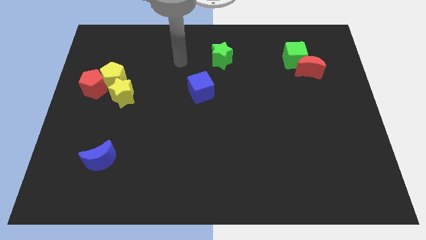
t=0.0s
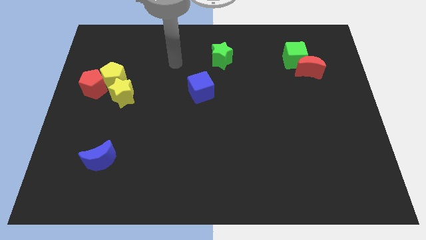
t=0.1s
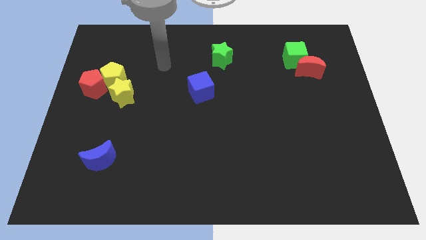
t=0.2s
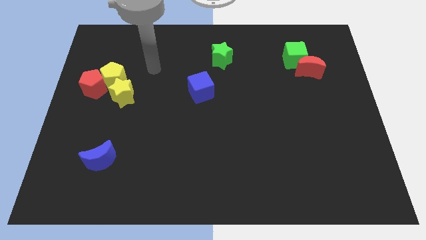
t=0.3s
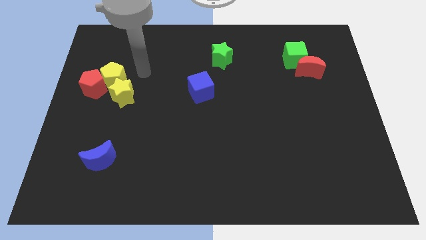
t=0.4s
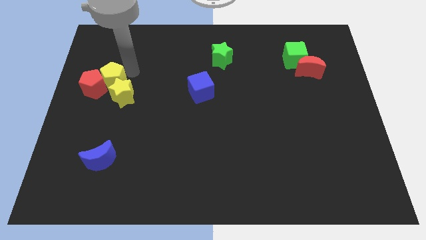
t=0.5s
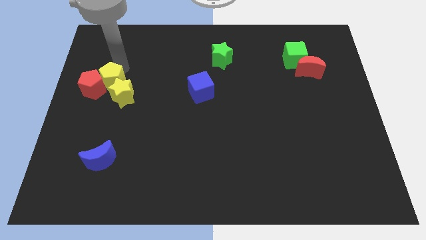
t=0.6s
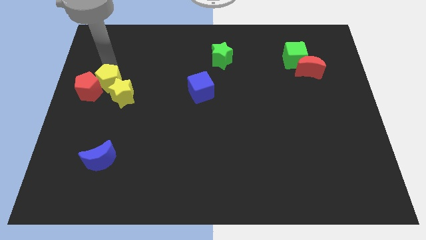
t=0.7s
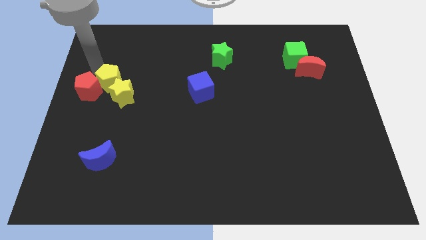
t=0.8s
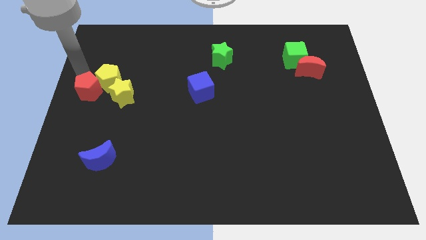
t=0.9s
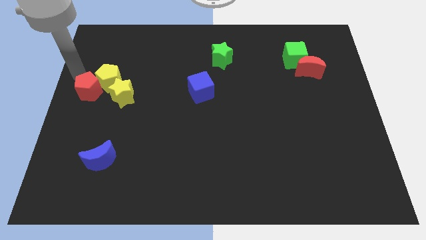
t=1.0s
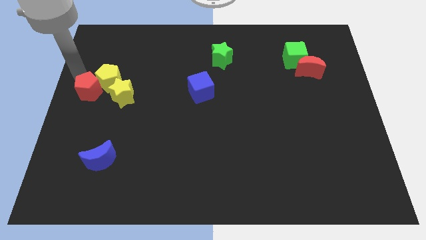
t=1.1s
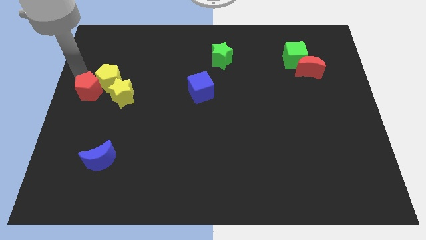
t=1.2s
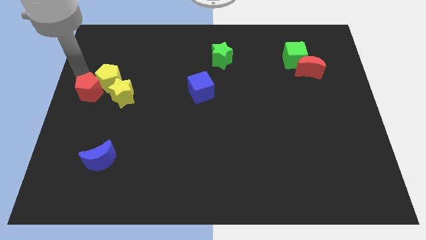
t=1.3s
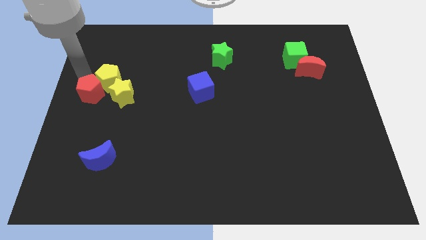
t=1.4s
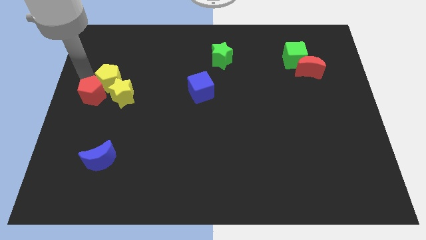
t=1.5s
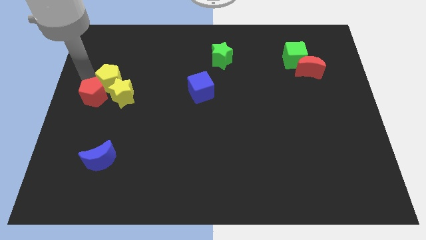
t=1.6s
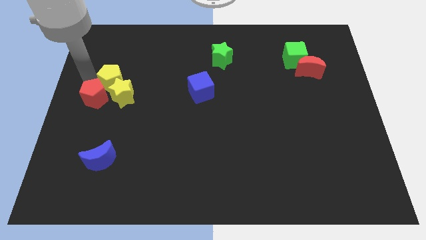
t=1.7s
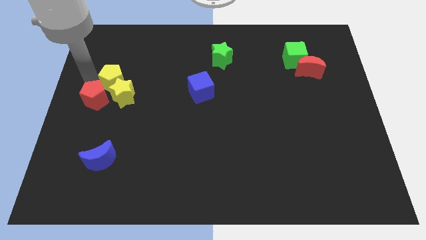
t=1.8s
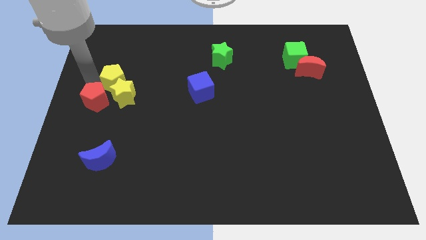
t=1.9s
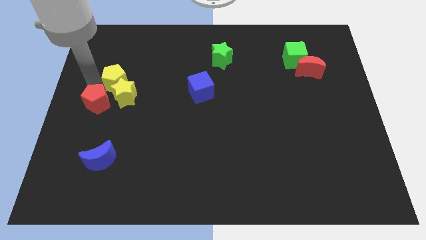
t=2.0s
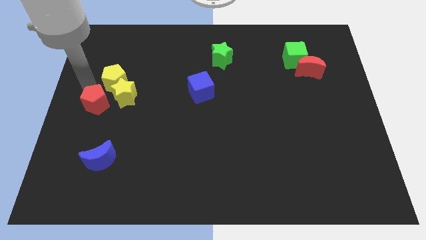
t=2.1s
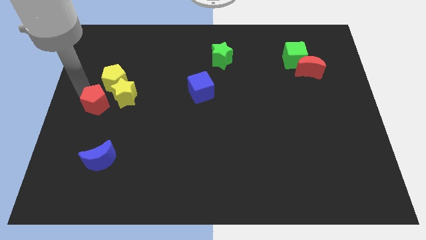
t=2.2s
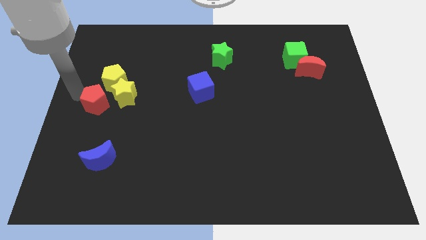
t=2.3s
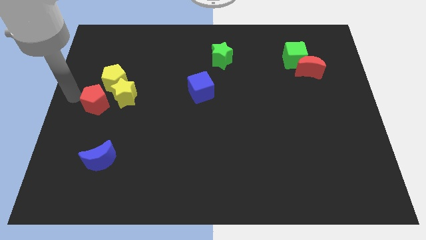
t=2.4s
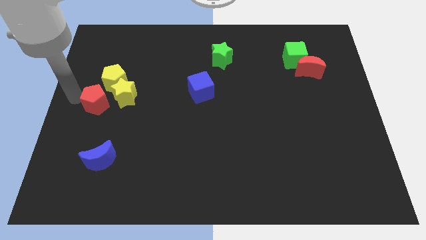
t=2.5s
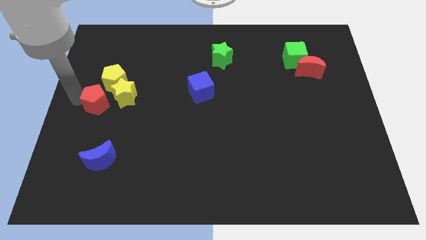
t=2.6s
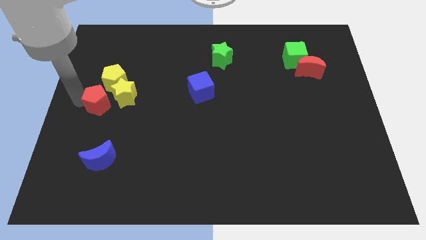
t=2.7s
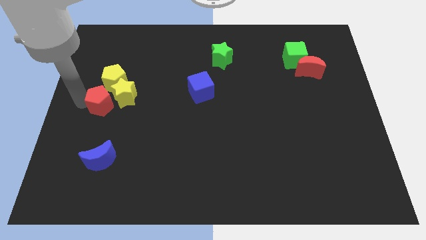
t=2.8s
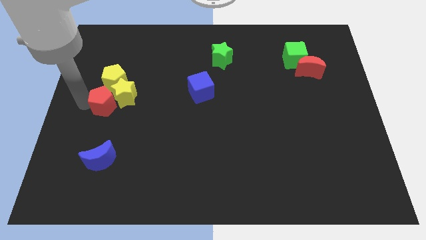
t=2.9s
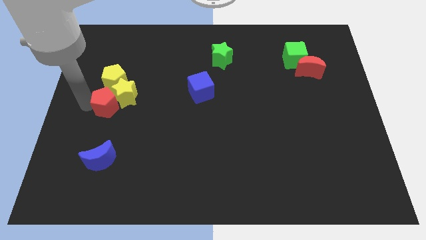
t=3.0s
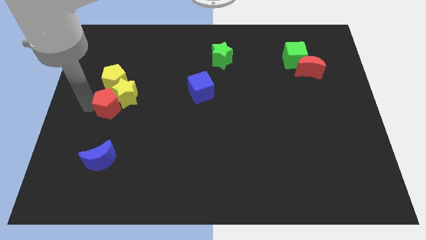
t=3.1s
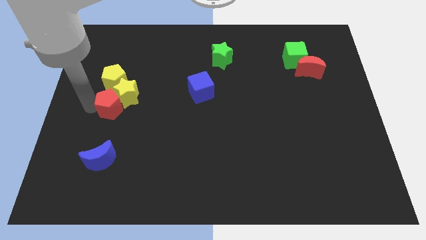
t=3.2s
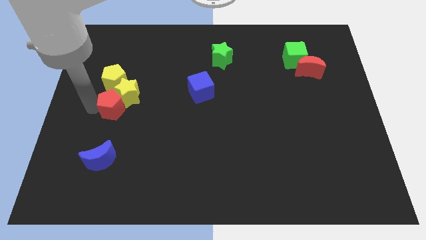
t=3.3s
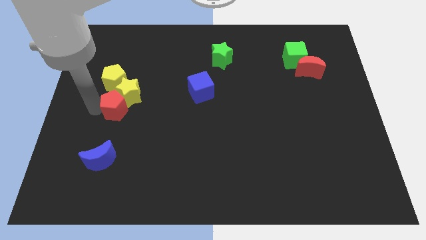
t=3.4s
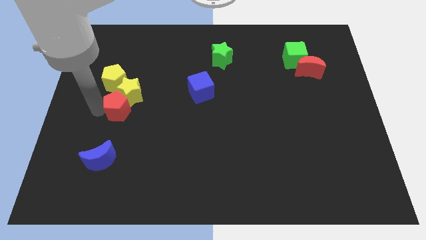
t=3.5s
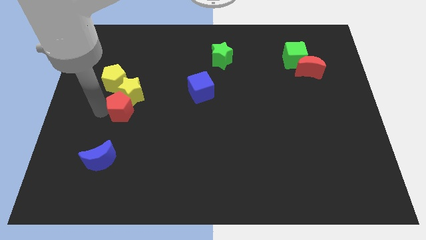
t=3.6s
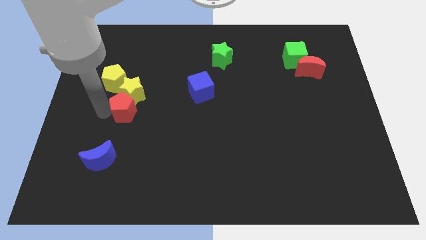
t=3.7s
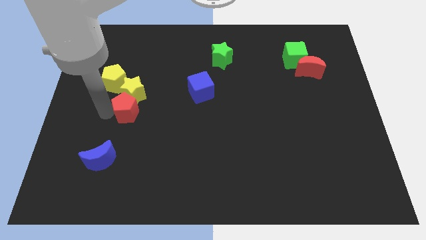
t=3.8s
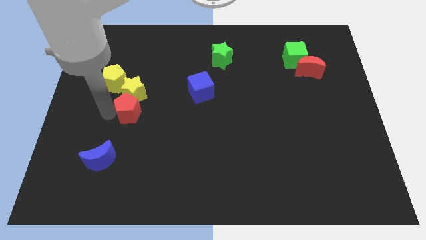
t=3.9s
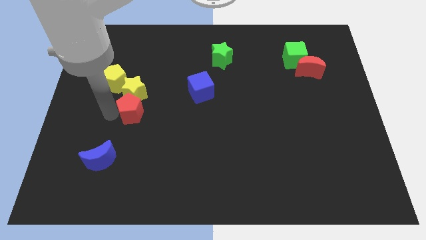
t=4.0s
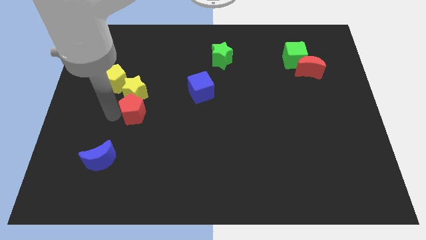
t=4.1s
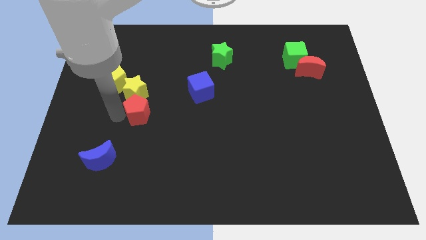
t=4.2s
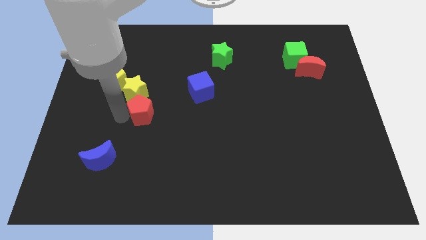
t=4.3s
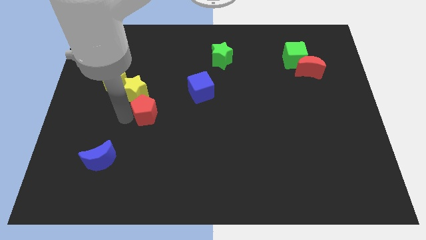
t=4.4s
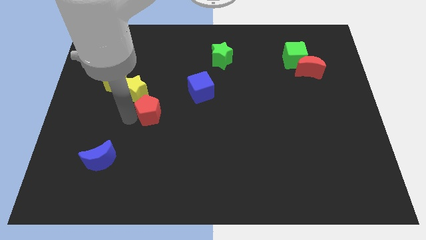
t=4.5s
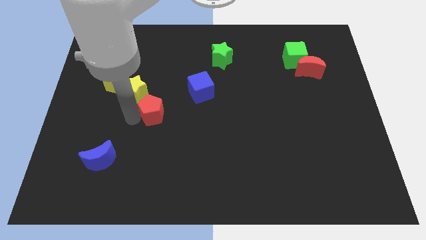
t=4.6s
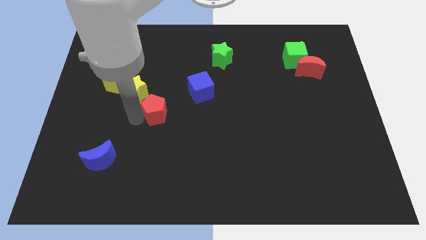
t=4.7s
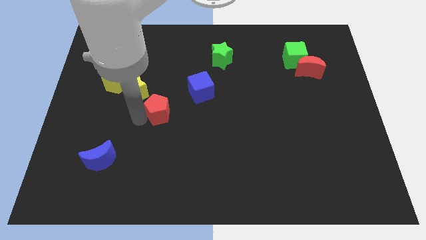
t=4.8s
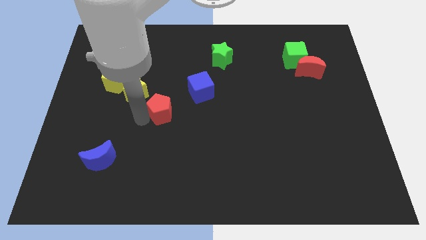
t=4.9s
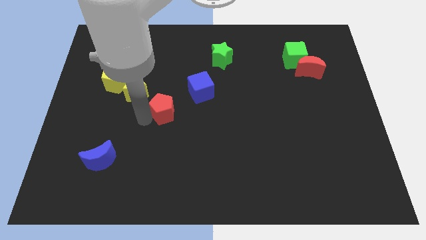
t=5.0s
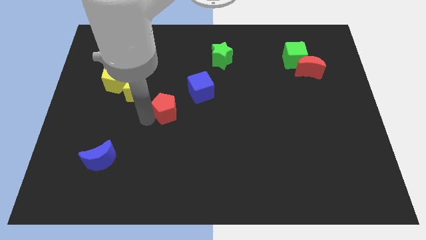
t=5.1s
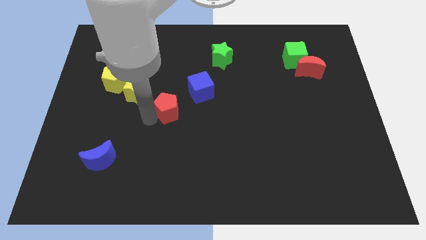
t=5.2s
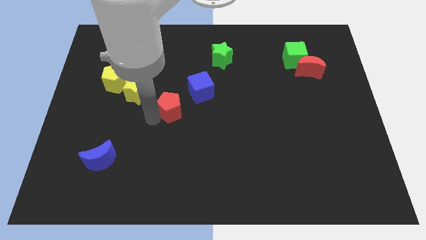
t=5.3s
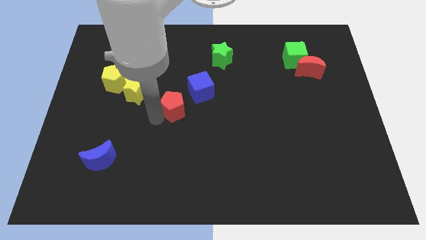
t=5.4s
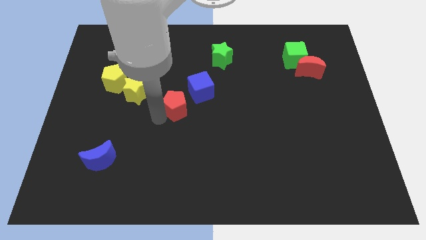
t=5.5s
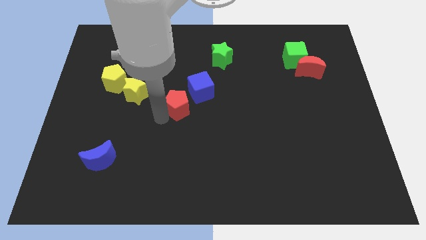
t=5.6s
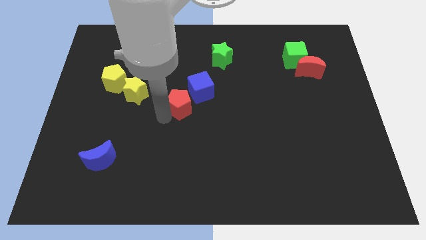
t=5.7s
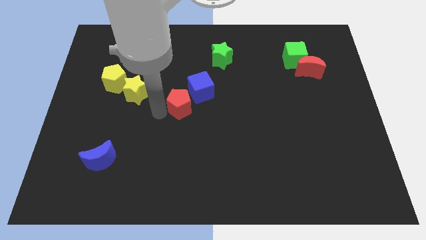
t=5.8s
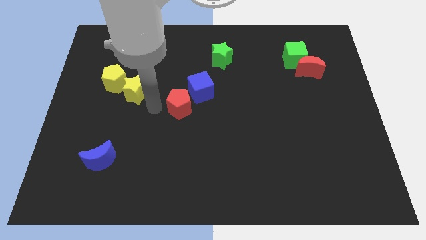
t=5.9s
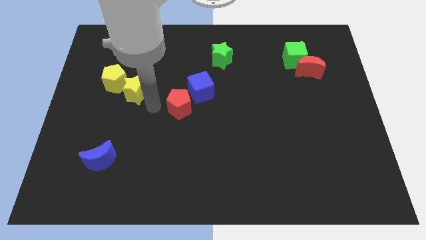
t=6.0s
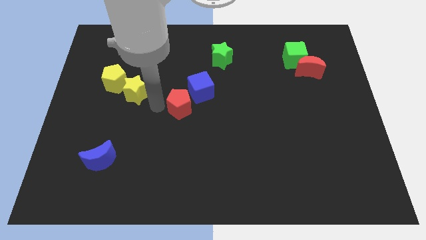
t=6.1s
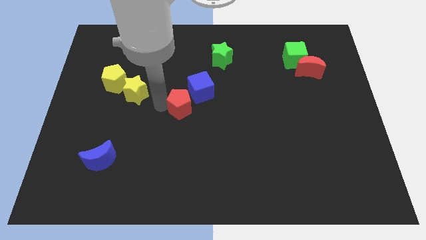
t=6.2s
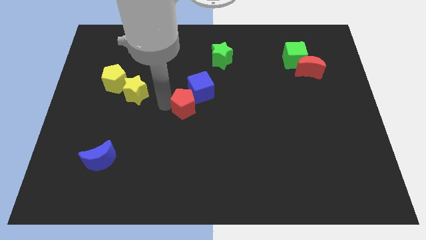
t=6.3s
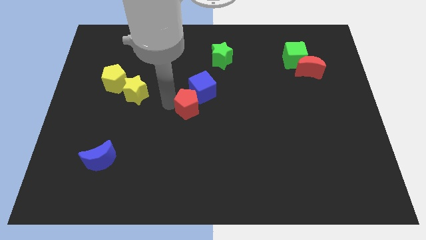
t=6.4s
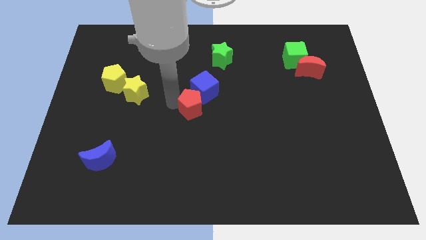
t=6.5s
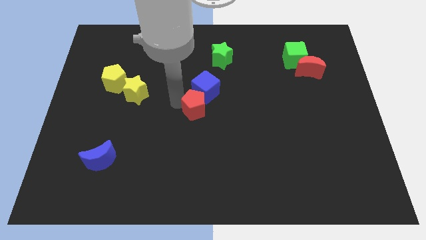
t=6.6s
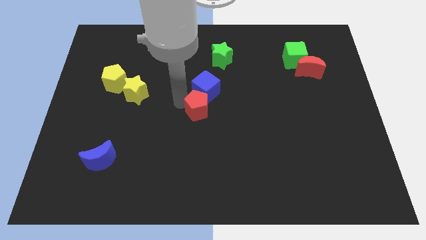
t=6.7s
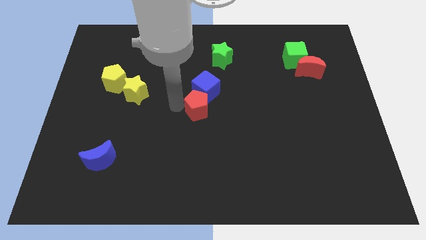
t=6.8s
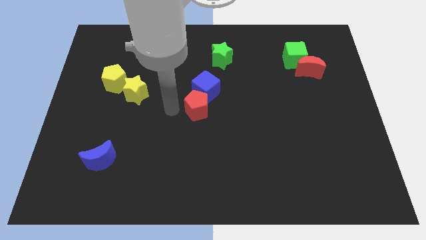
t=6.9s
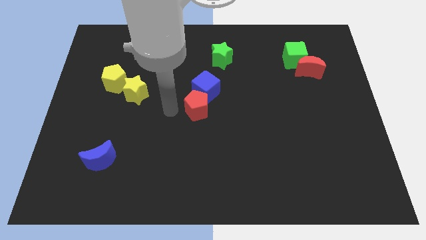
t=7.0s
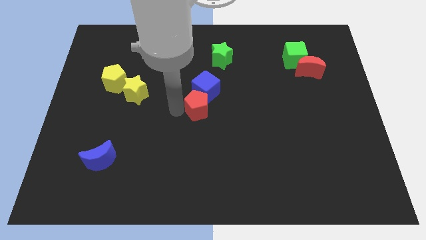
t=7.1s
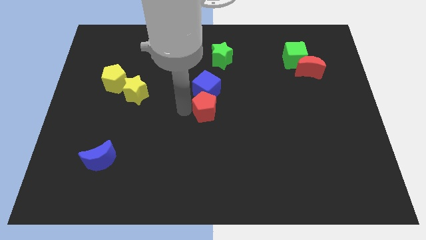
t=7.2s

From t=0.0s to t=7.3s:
put the red pentagon to the bottom right of the blue cube

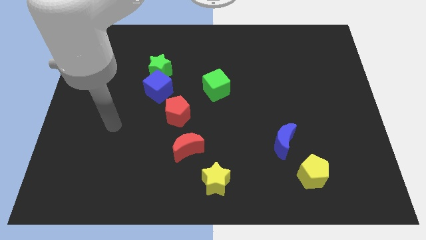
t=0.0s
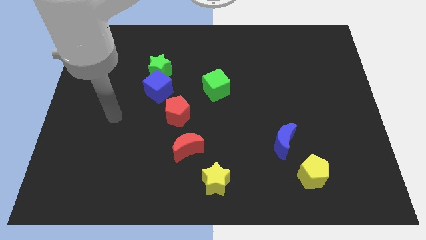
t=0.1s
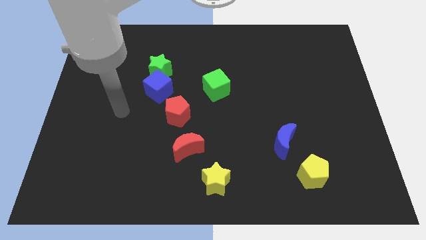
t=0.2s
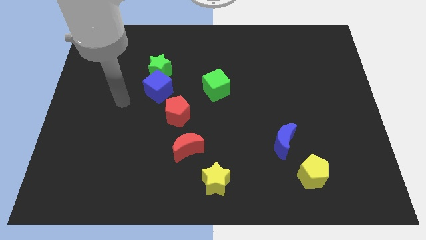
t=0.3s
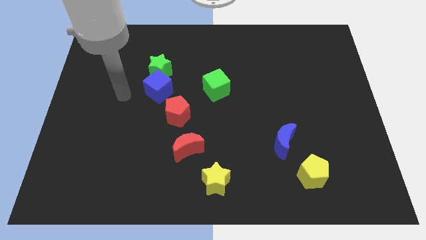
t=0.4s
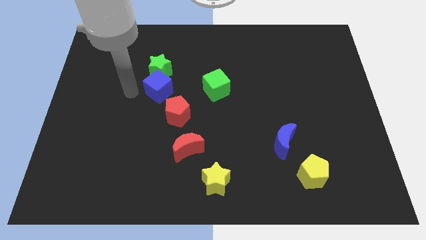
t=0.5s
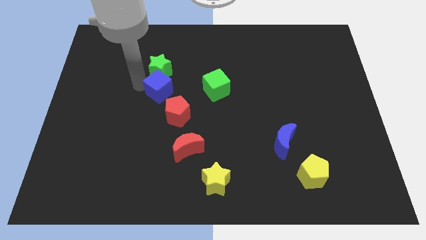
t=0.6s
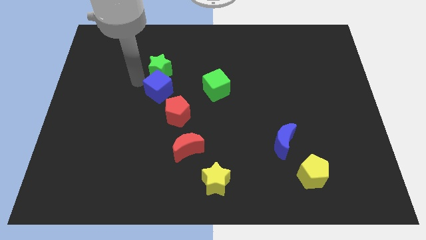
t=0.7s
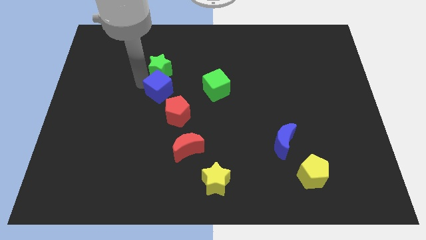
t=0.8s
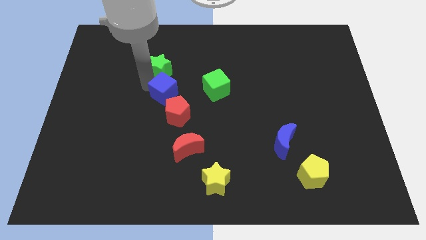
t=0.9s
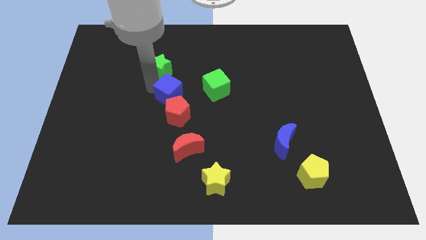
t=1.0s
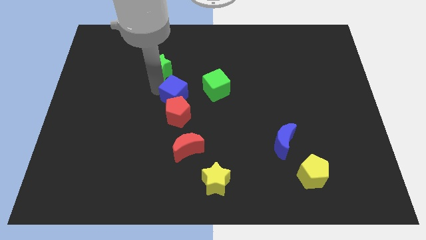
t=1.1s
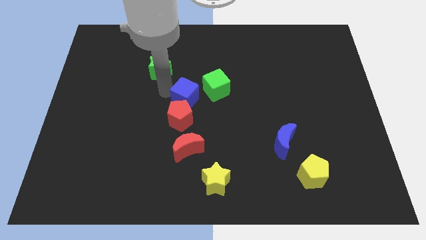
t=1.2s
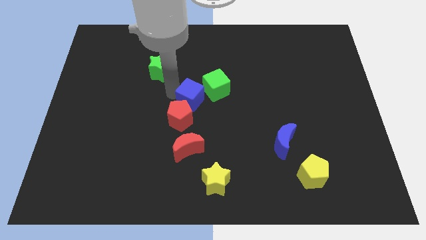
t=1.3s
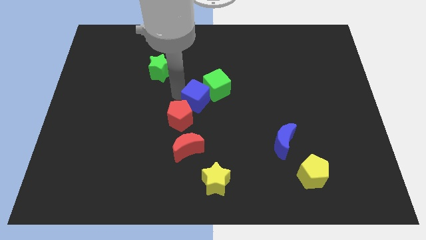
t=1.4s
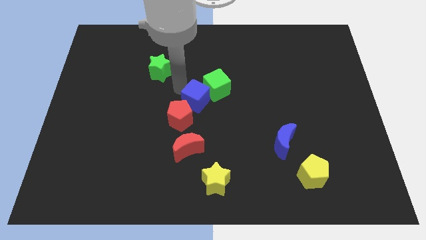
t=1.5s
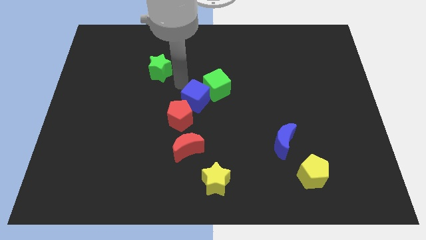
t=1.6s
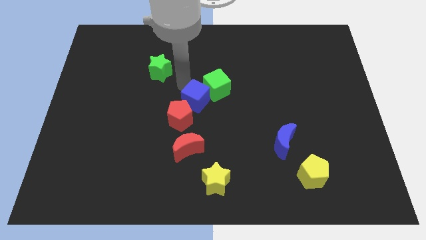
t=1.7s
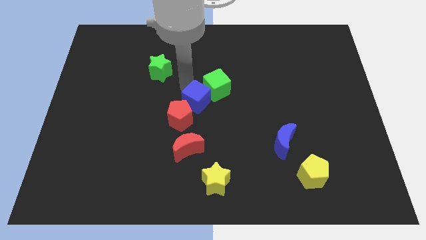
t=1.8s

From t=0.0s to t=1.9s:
put the blue cube to the bottom side of the green cube
